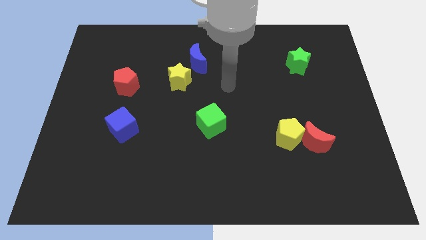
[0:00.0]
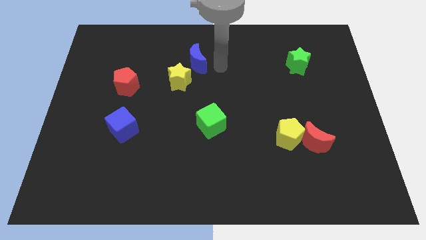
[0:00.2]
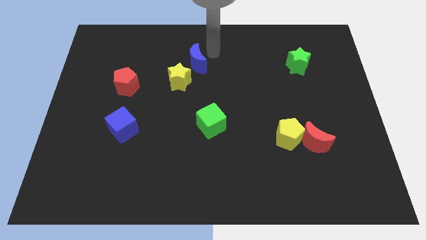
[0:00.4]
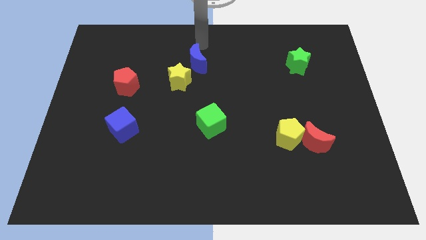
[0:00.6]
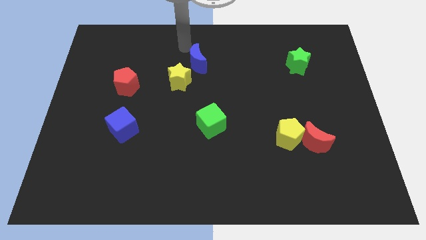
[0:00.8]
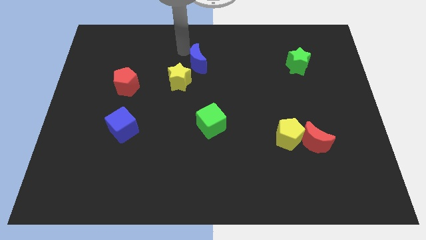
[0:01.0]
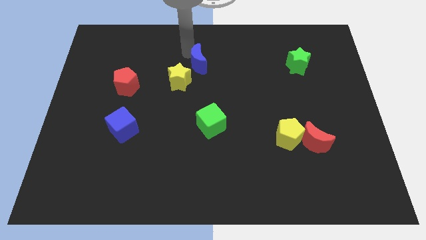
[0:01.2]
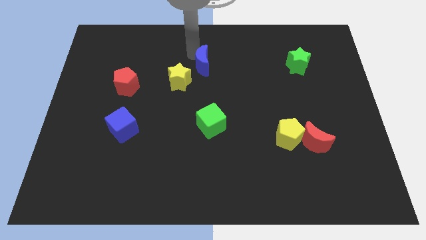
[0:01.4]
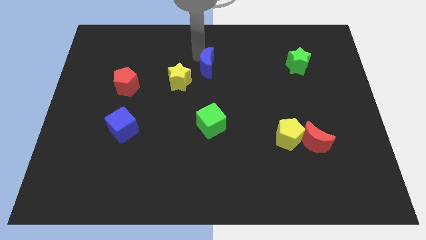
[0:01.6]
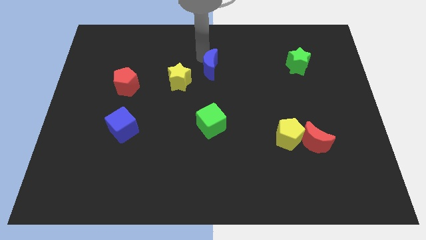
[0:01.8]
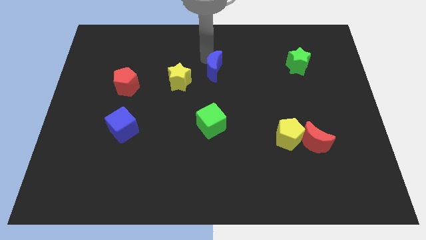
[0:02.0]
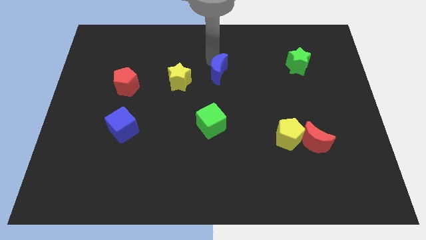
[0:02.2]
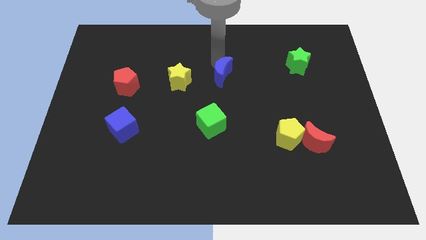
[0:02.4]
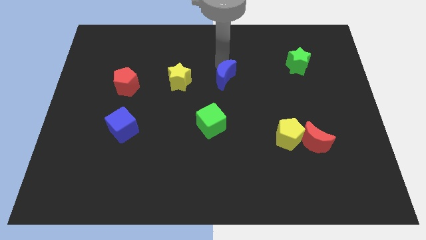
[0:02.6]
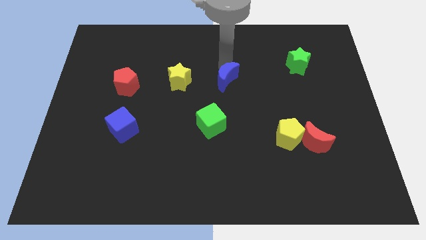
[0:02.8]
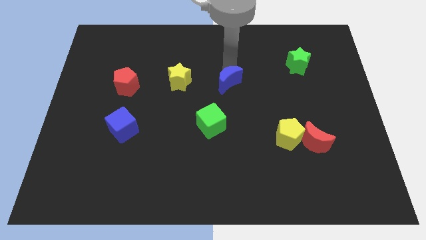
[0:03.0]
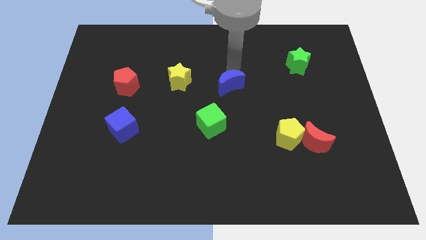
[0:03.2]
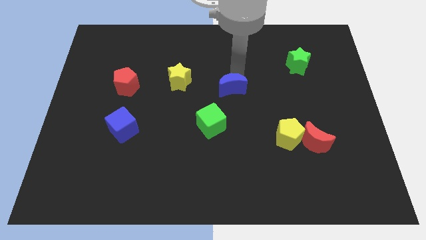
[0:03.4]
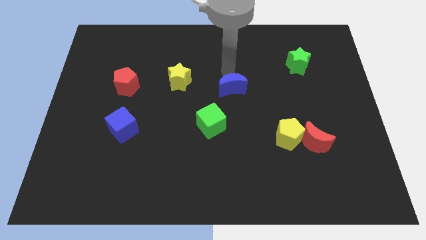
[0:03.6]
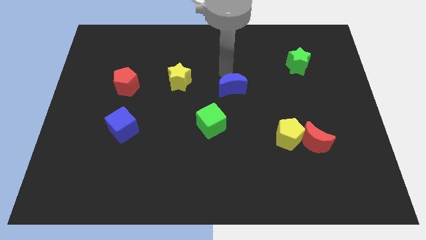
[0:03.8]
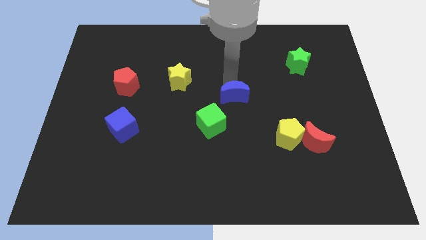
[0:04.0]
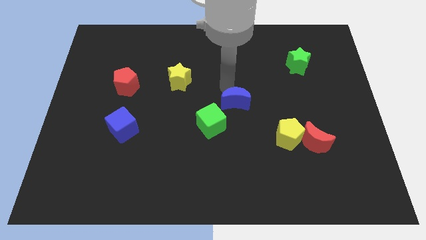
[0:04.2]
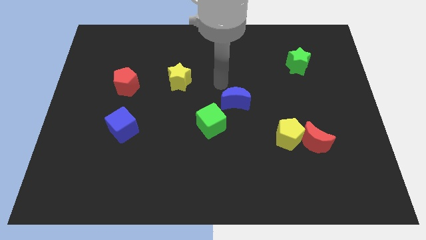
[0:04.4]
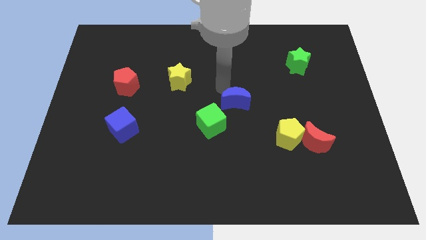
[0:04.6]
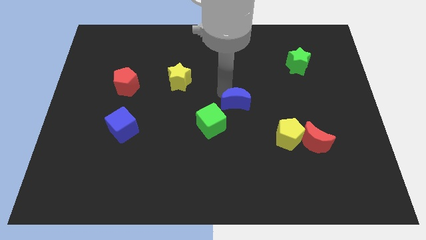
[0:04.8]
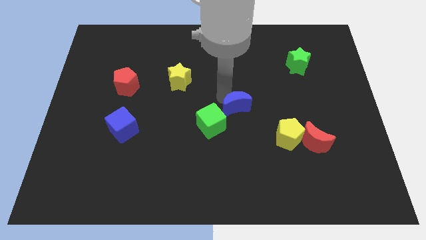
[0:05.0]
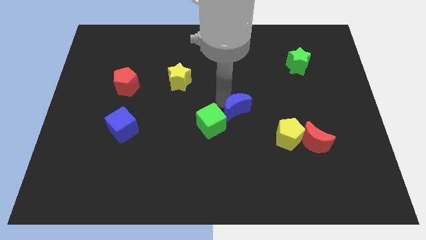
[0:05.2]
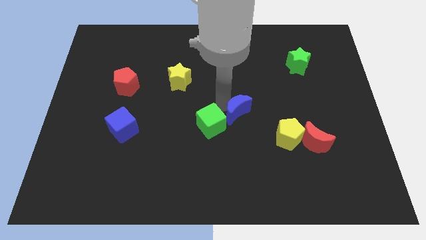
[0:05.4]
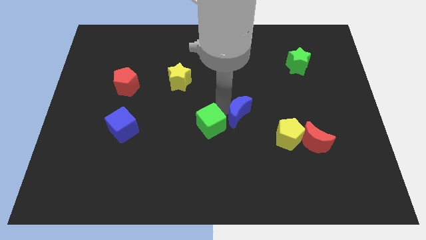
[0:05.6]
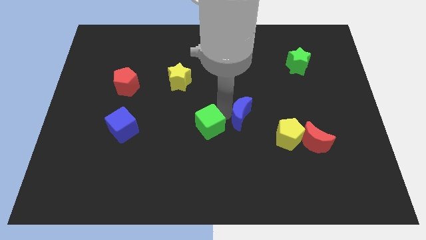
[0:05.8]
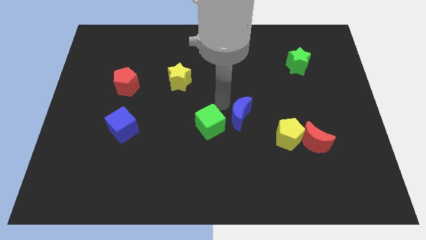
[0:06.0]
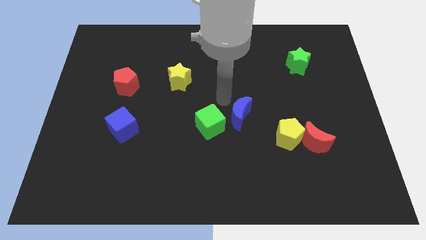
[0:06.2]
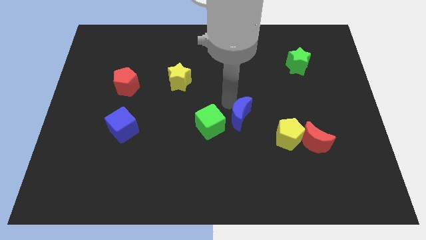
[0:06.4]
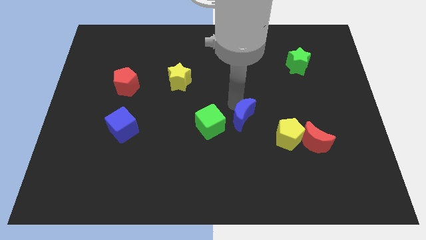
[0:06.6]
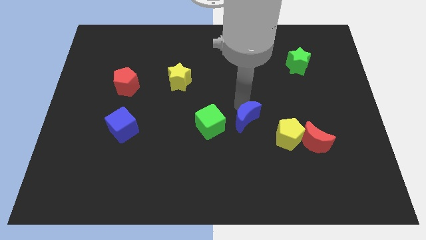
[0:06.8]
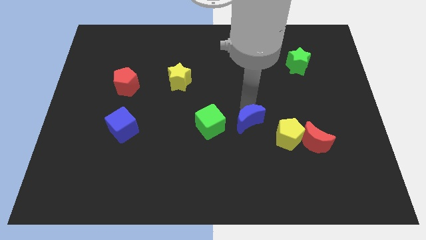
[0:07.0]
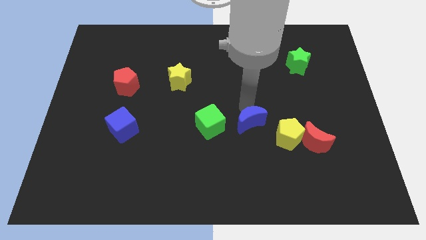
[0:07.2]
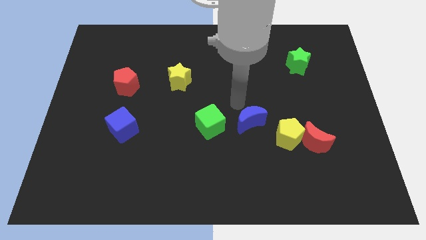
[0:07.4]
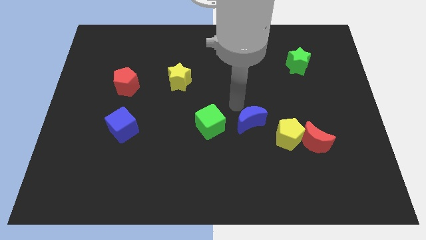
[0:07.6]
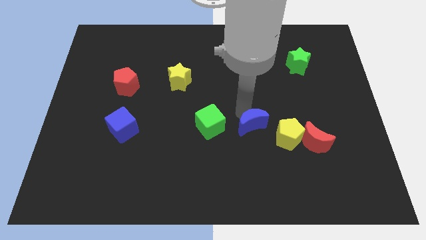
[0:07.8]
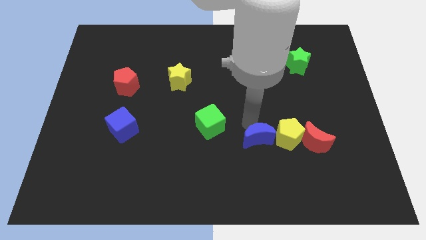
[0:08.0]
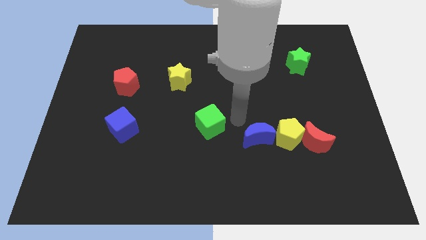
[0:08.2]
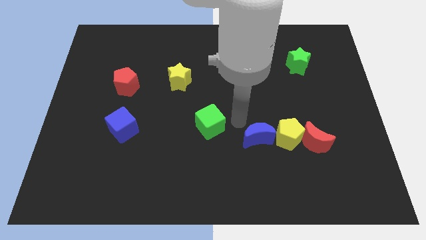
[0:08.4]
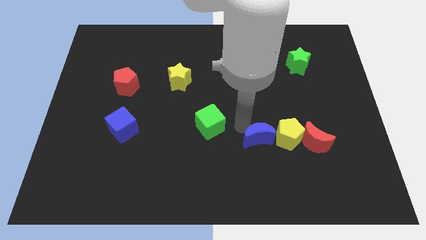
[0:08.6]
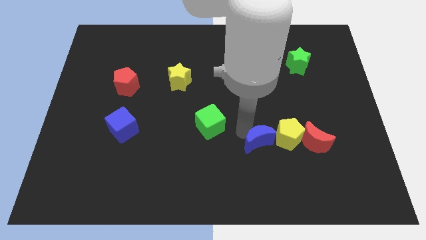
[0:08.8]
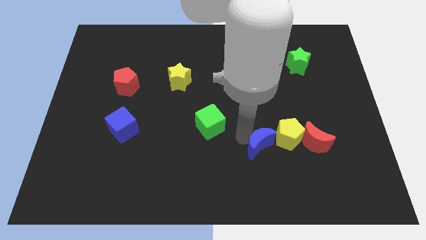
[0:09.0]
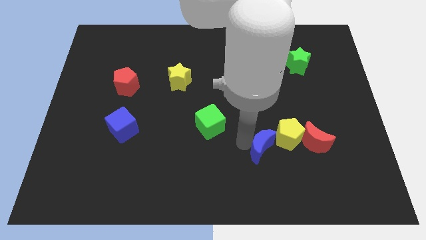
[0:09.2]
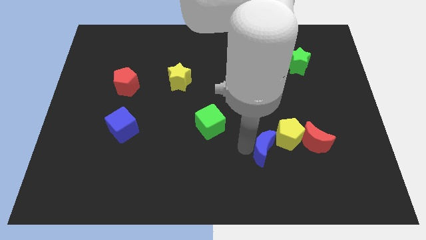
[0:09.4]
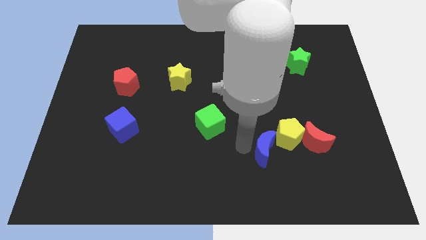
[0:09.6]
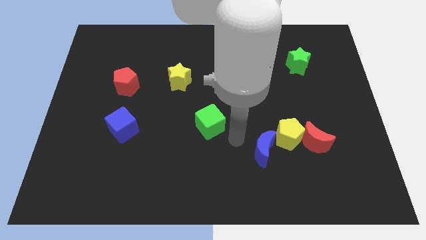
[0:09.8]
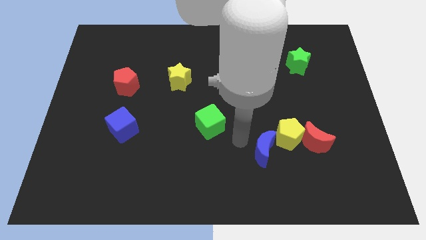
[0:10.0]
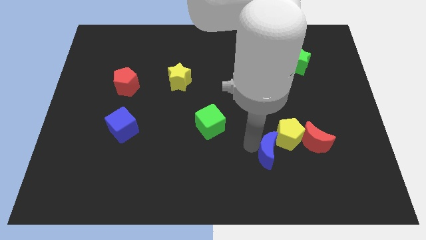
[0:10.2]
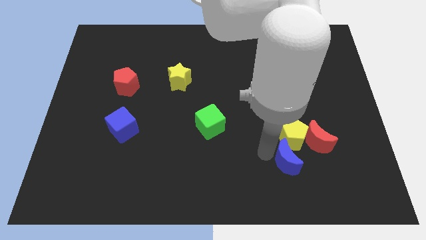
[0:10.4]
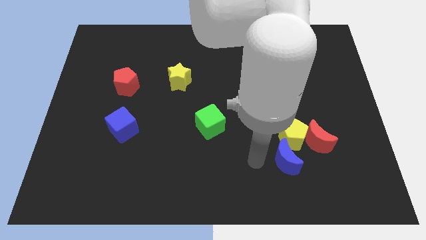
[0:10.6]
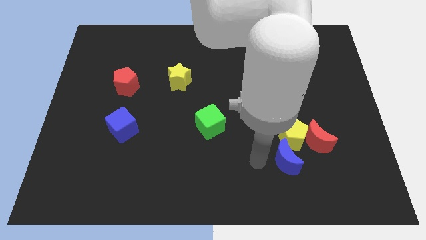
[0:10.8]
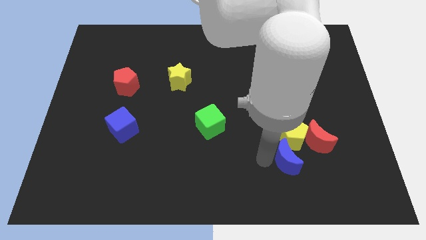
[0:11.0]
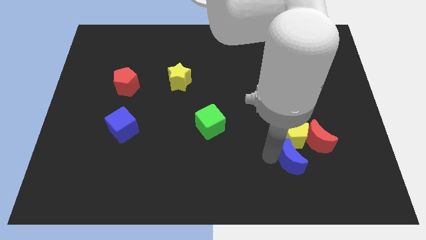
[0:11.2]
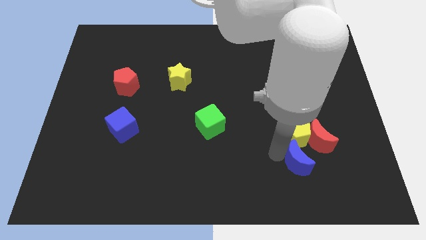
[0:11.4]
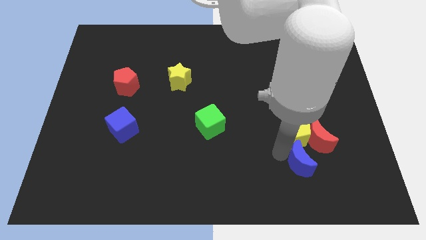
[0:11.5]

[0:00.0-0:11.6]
put the blue moon to the bottom right side of the yellow pentagon

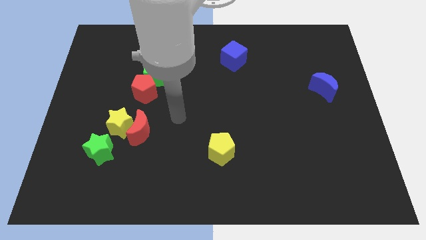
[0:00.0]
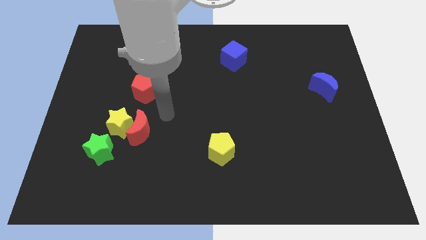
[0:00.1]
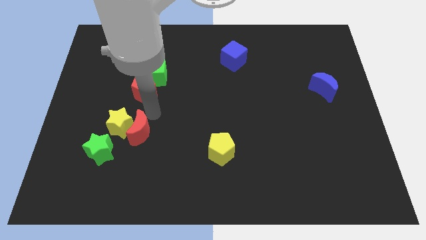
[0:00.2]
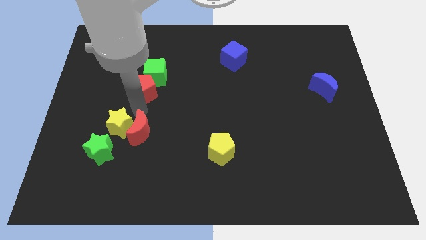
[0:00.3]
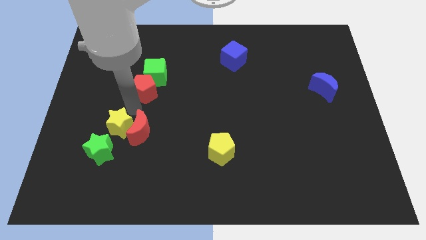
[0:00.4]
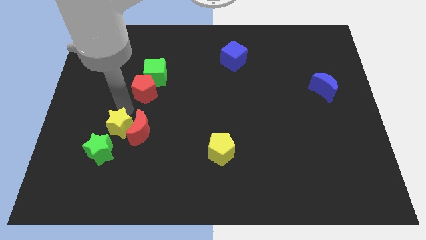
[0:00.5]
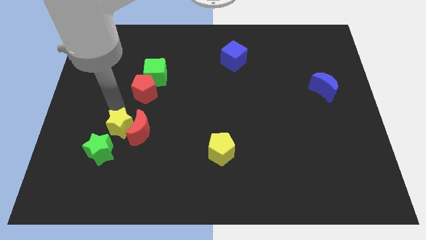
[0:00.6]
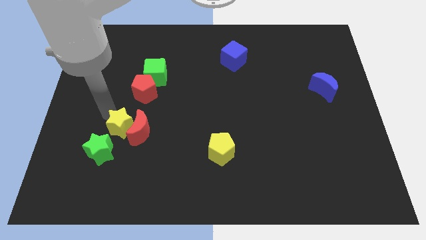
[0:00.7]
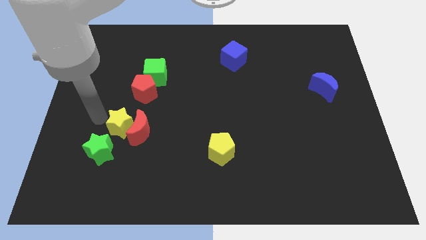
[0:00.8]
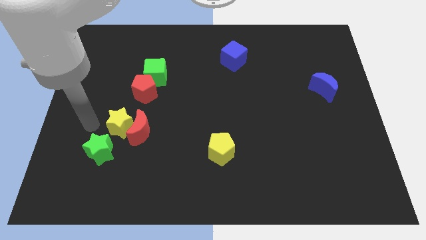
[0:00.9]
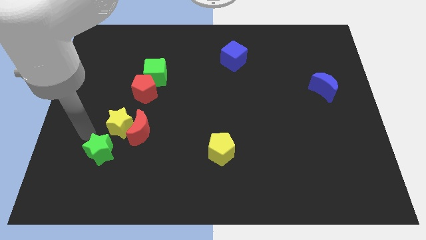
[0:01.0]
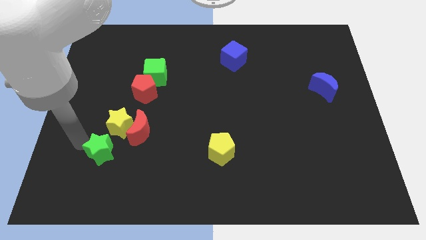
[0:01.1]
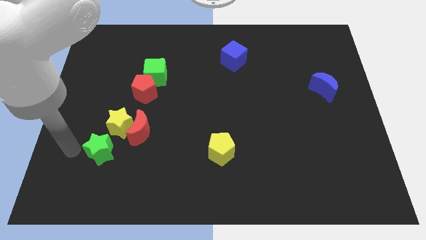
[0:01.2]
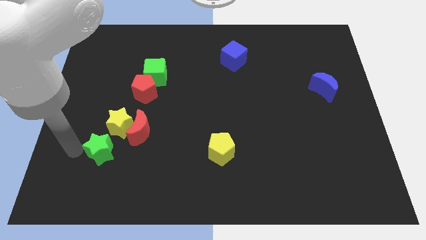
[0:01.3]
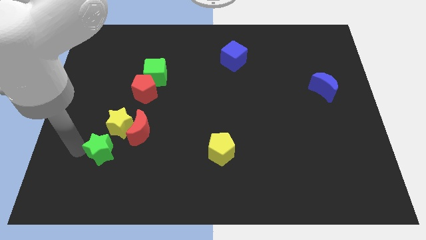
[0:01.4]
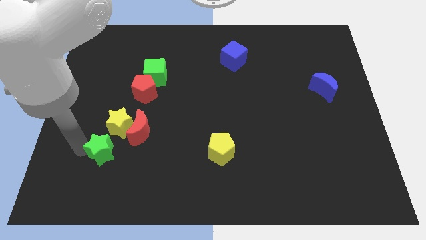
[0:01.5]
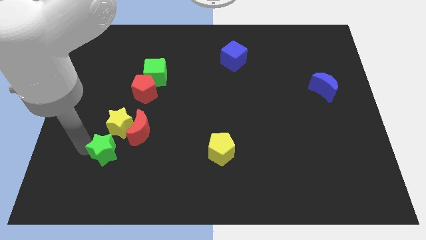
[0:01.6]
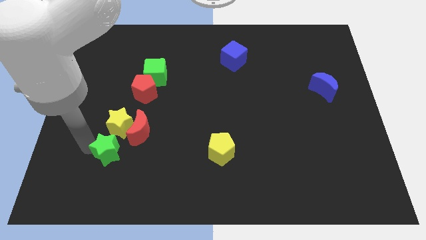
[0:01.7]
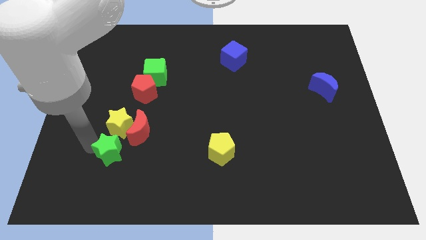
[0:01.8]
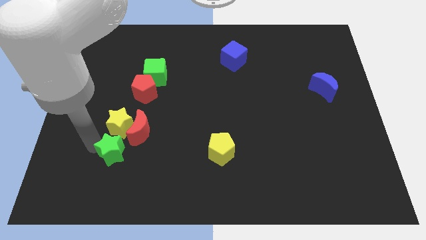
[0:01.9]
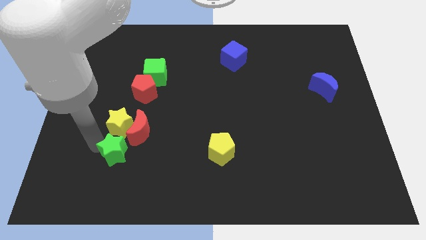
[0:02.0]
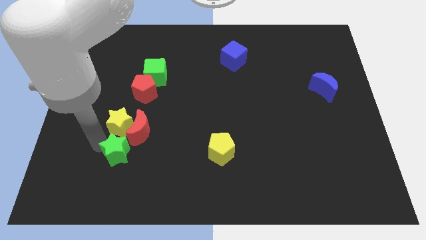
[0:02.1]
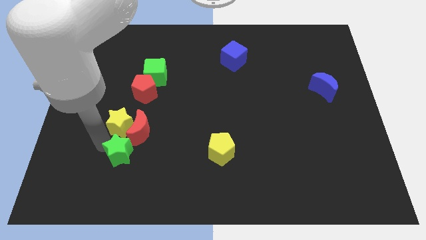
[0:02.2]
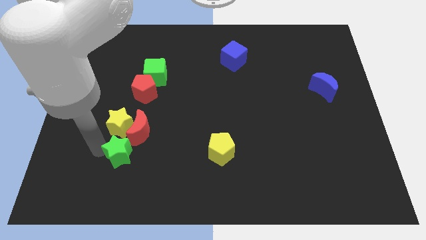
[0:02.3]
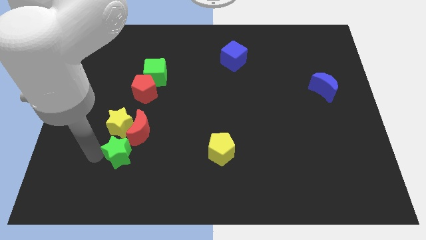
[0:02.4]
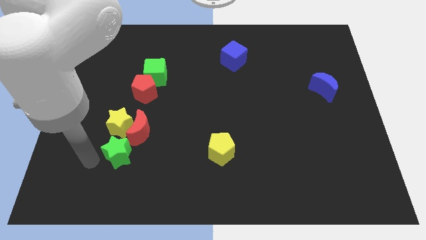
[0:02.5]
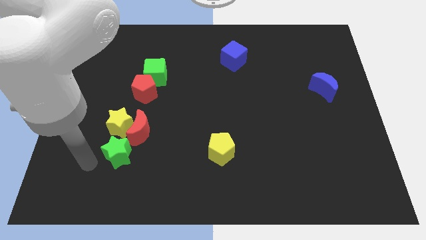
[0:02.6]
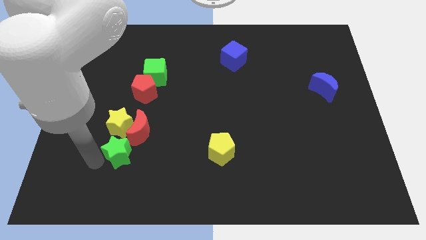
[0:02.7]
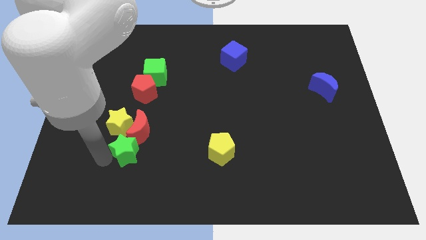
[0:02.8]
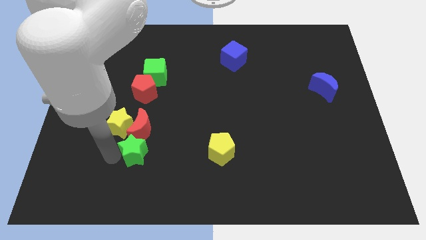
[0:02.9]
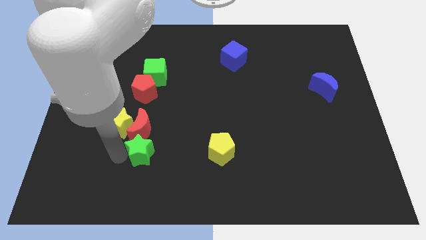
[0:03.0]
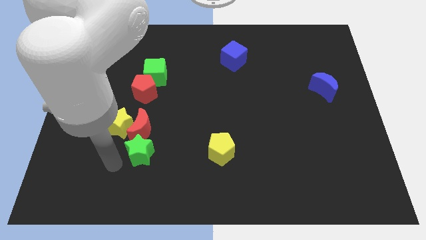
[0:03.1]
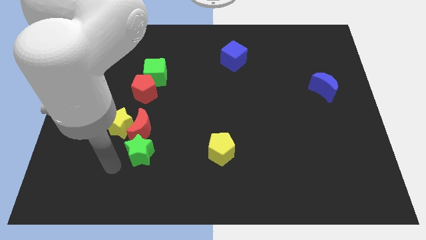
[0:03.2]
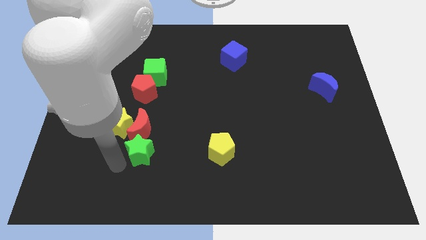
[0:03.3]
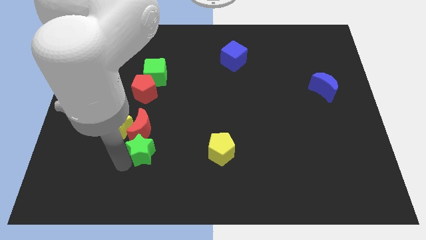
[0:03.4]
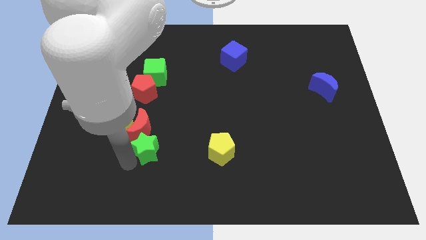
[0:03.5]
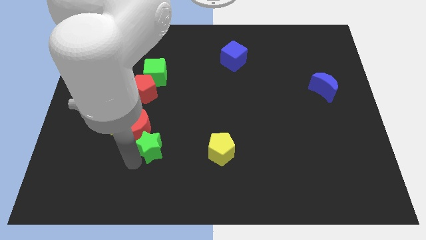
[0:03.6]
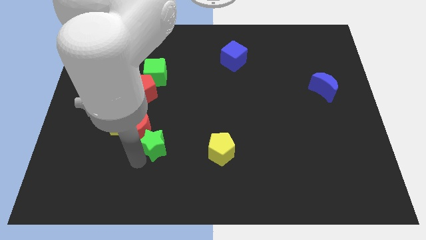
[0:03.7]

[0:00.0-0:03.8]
move the green star just right of the red moon
